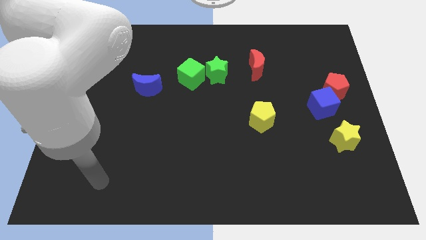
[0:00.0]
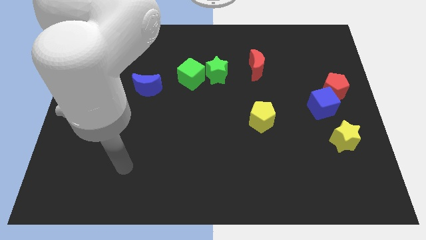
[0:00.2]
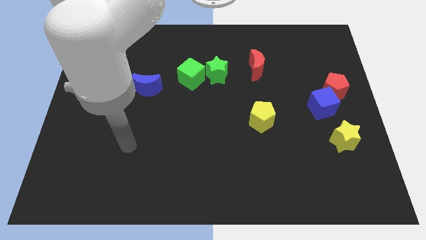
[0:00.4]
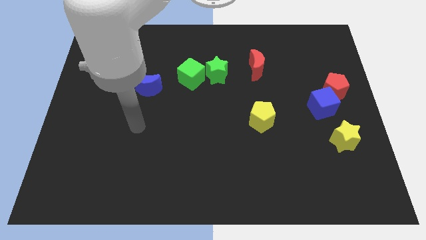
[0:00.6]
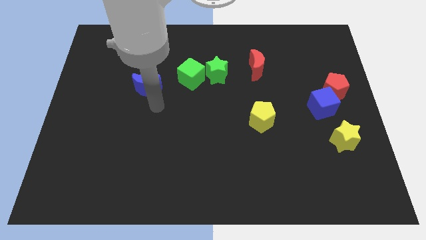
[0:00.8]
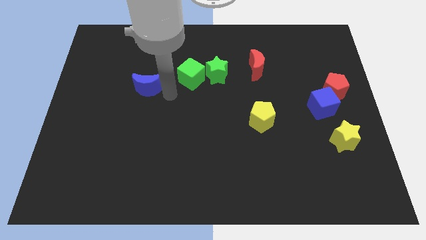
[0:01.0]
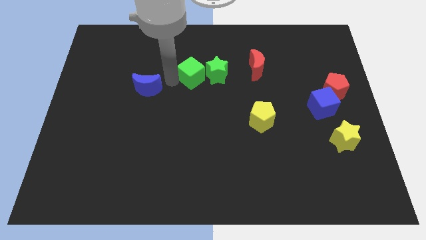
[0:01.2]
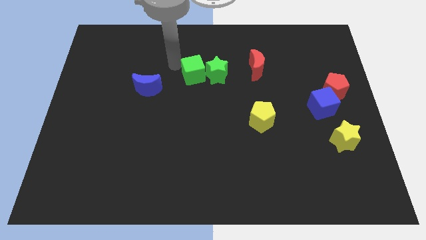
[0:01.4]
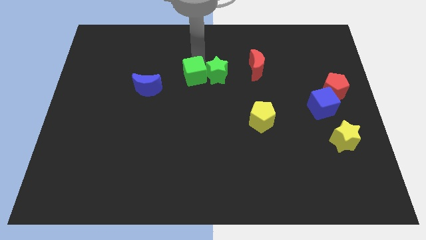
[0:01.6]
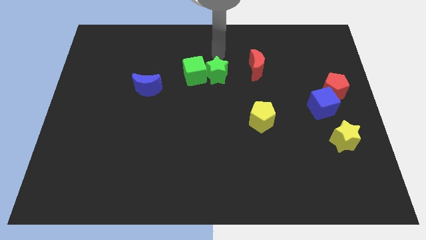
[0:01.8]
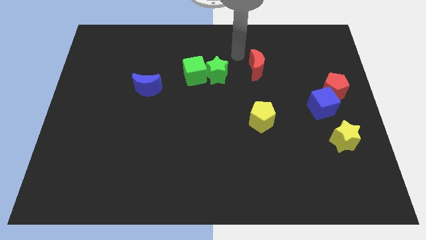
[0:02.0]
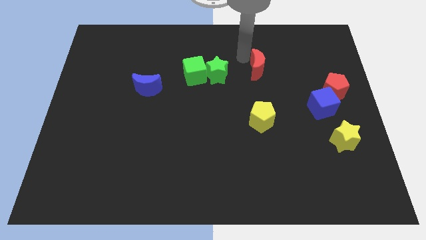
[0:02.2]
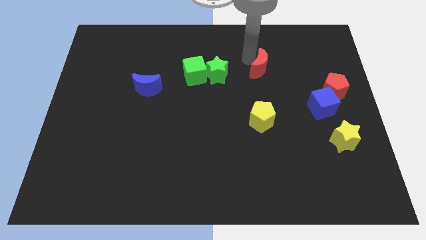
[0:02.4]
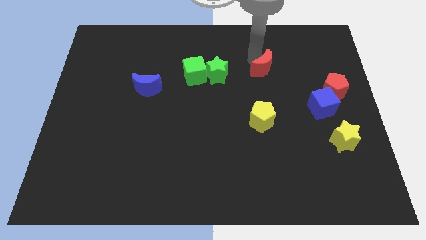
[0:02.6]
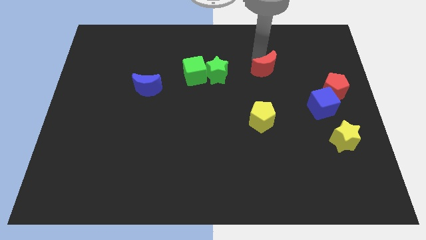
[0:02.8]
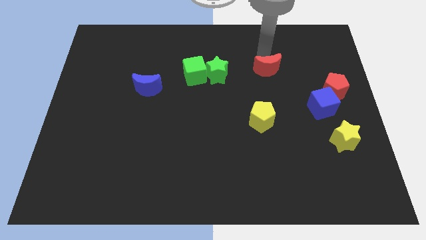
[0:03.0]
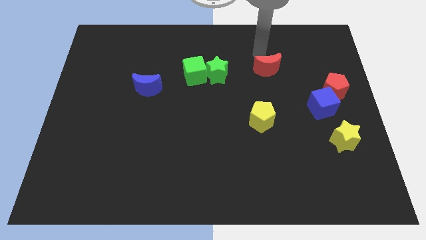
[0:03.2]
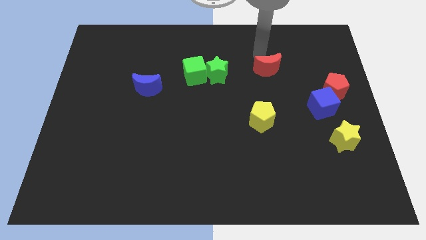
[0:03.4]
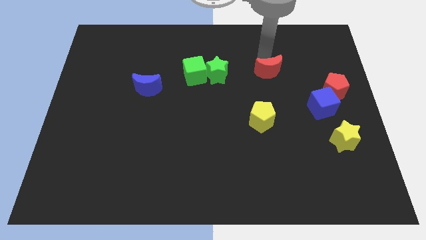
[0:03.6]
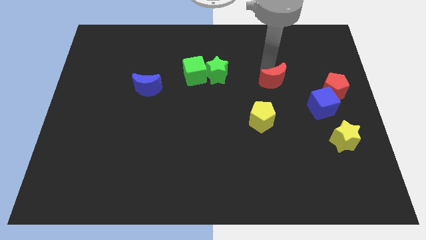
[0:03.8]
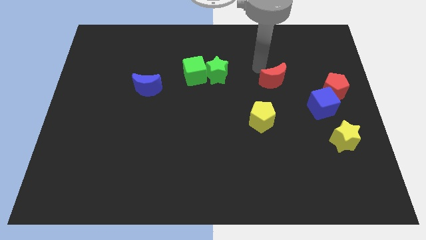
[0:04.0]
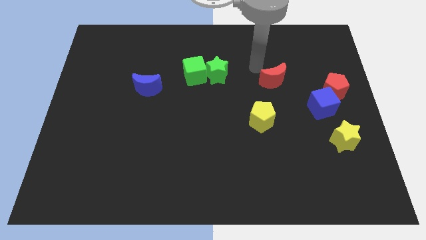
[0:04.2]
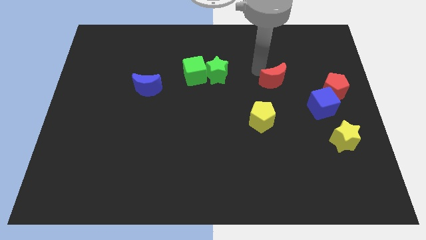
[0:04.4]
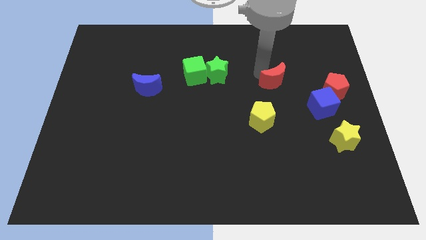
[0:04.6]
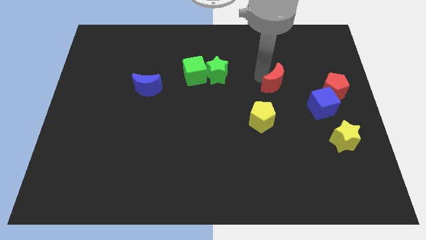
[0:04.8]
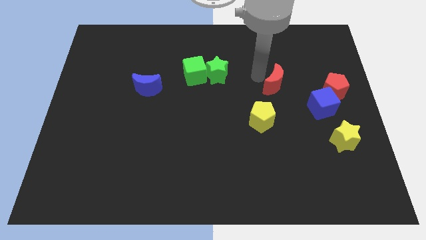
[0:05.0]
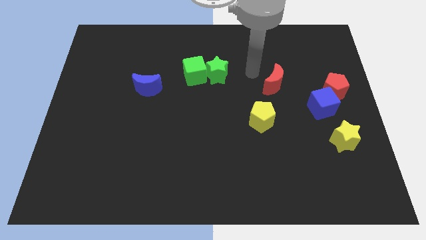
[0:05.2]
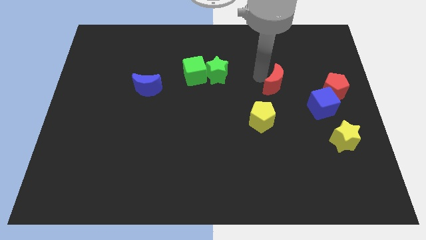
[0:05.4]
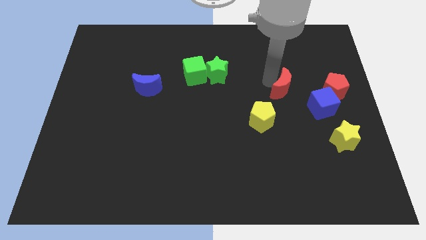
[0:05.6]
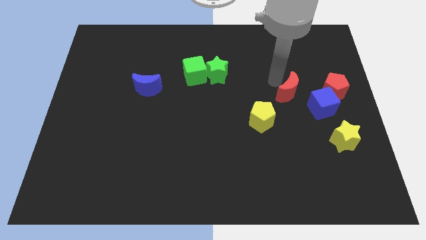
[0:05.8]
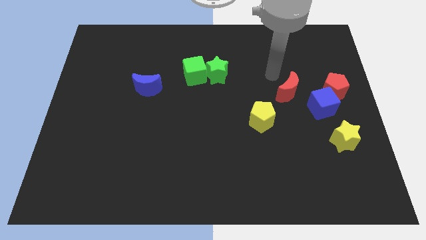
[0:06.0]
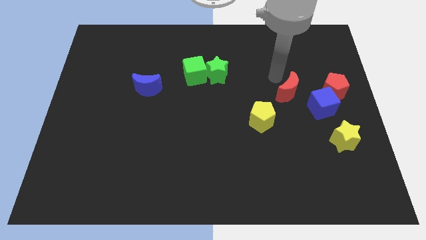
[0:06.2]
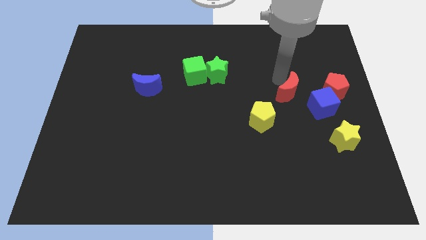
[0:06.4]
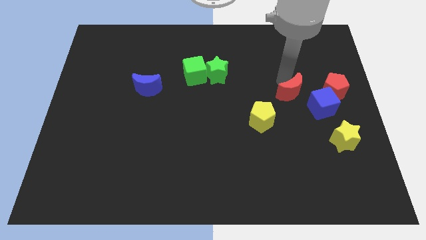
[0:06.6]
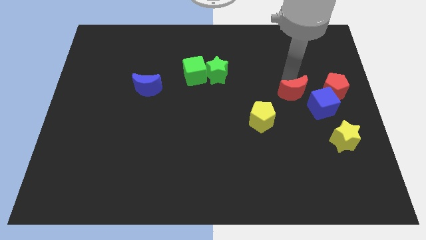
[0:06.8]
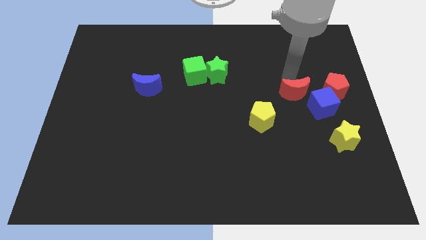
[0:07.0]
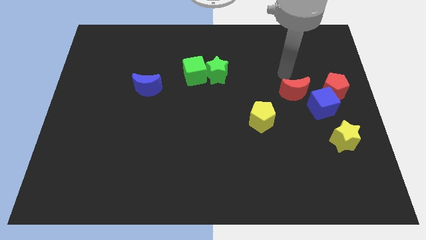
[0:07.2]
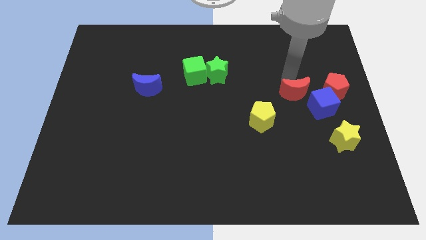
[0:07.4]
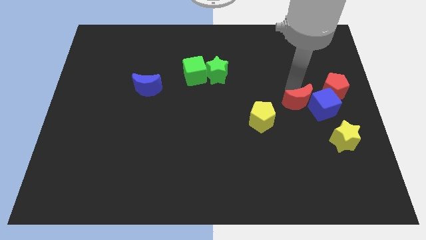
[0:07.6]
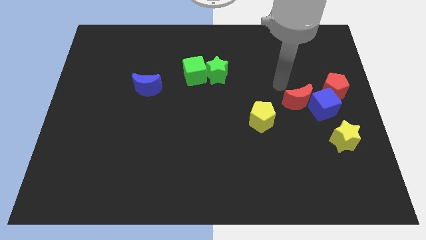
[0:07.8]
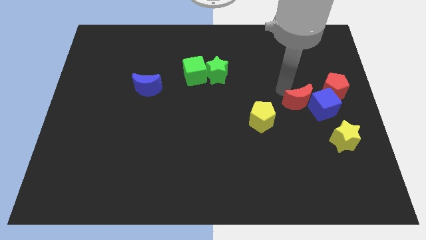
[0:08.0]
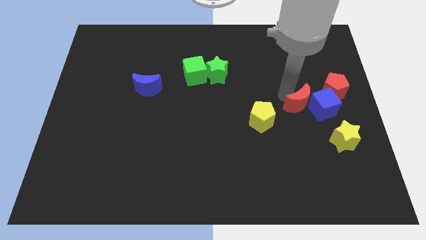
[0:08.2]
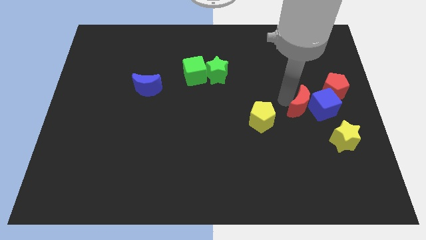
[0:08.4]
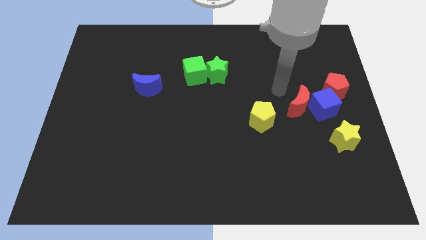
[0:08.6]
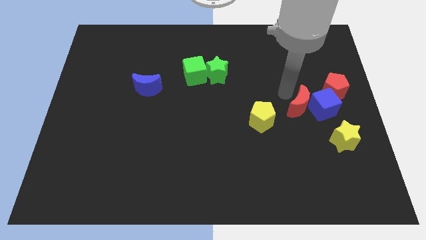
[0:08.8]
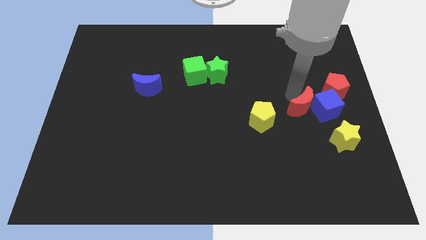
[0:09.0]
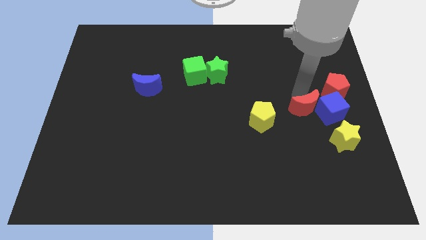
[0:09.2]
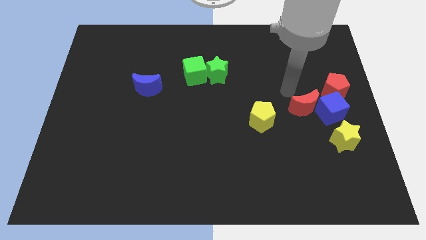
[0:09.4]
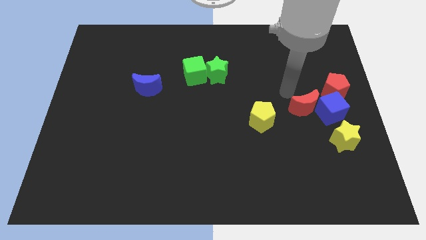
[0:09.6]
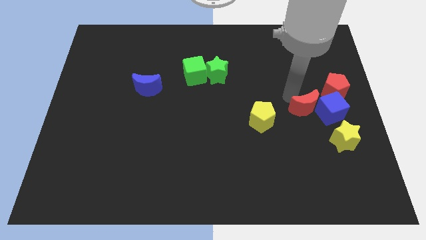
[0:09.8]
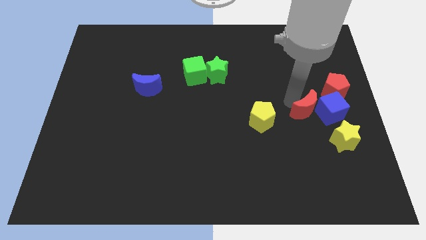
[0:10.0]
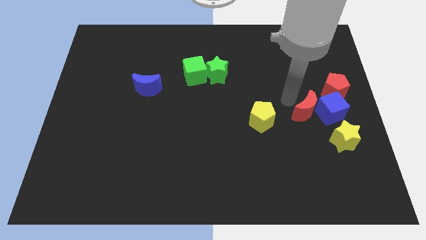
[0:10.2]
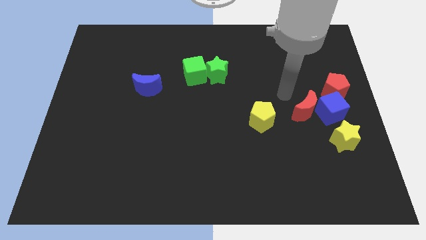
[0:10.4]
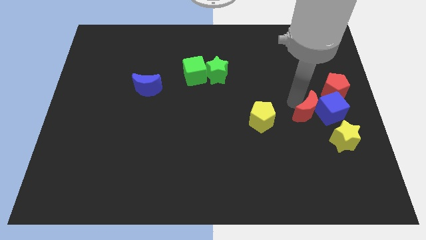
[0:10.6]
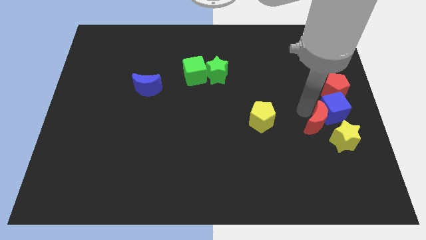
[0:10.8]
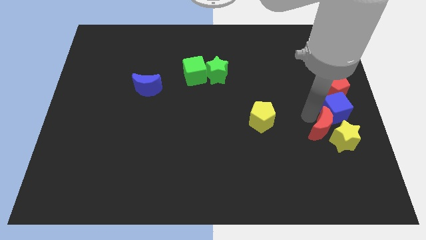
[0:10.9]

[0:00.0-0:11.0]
slide the red moon to the yellow star

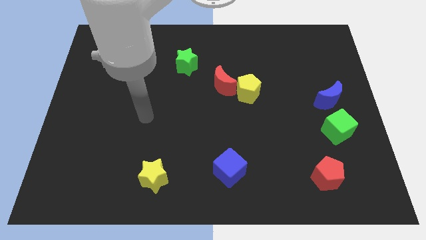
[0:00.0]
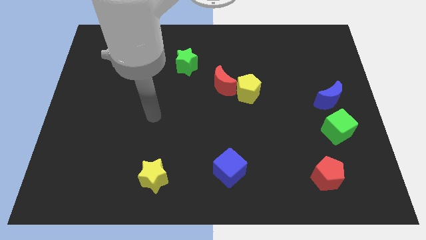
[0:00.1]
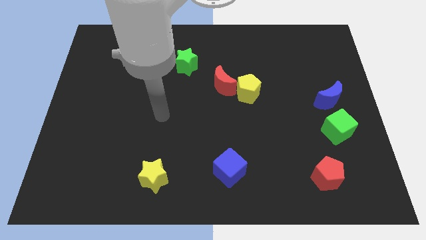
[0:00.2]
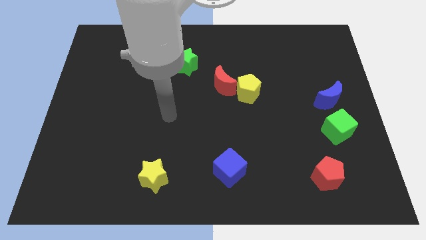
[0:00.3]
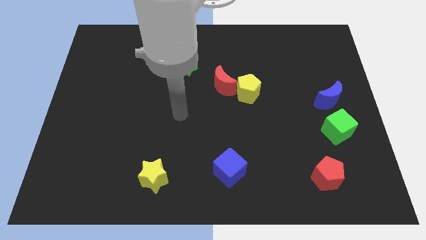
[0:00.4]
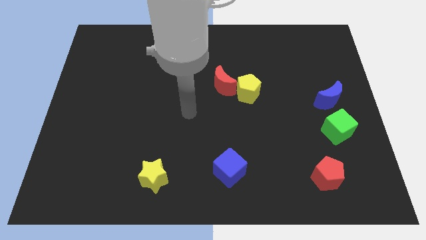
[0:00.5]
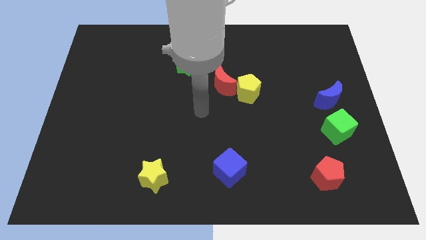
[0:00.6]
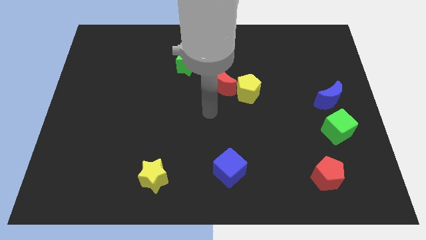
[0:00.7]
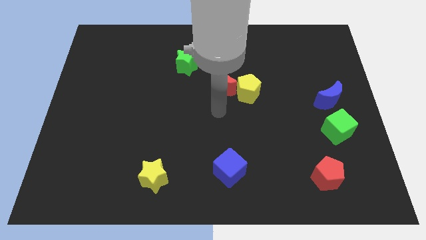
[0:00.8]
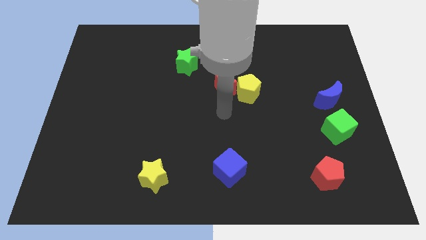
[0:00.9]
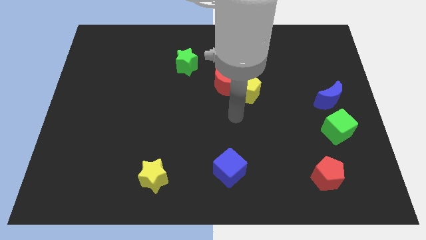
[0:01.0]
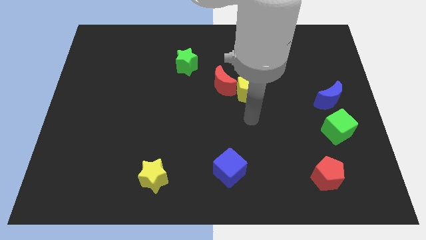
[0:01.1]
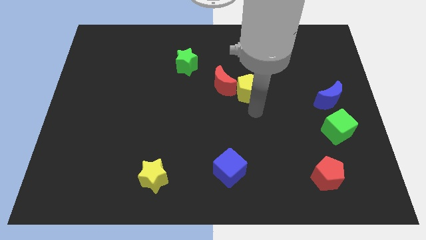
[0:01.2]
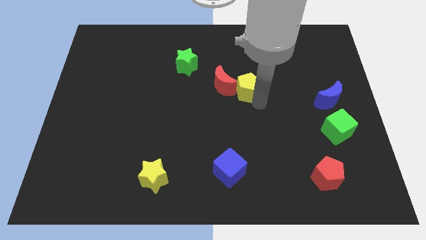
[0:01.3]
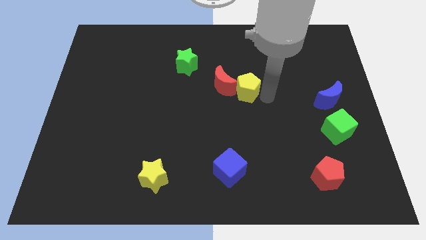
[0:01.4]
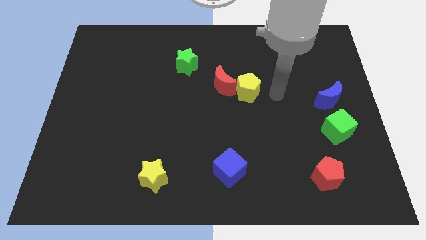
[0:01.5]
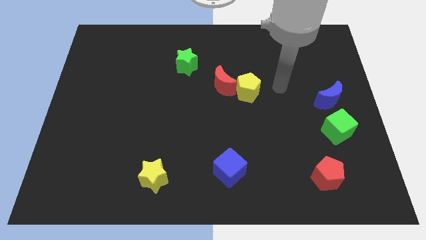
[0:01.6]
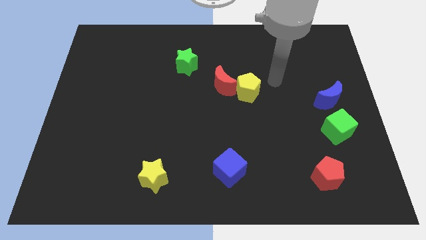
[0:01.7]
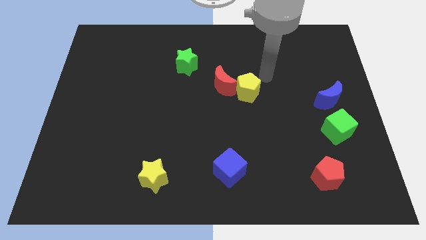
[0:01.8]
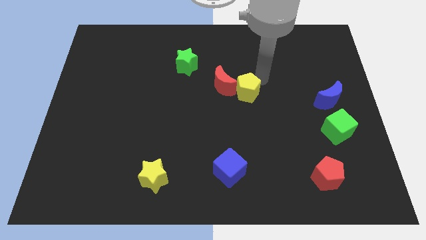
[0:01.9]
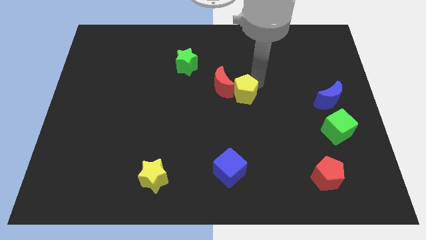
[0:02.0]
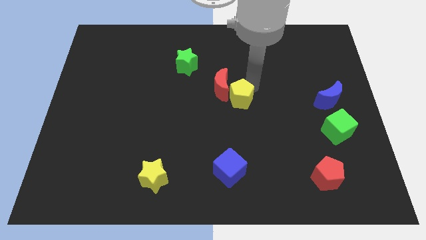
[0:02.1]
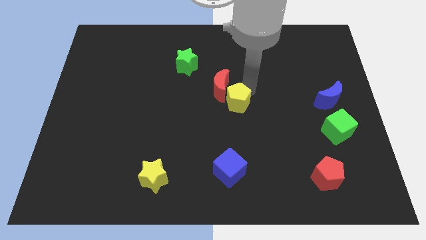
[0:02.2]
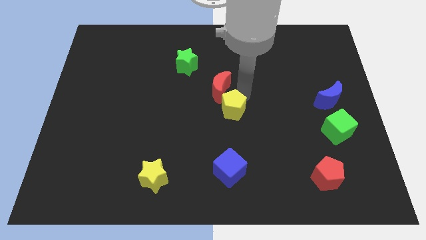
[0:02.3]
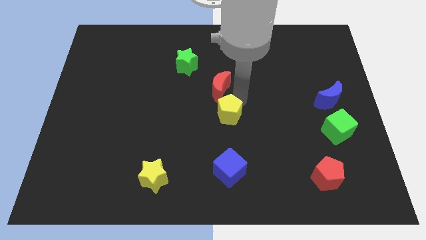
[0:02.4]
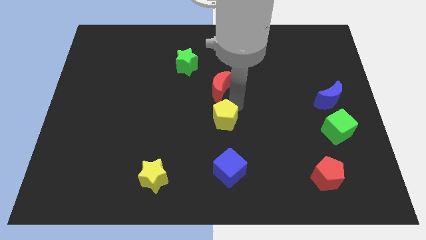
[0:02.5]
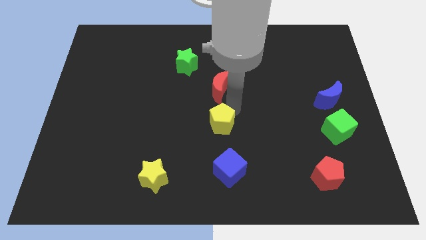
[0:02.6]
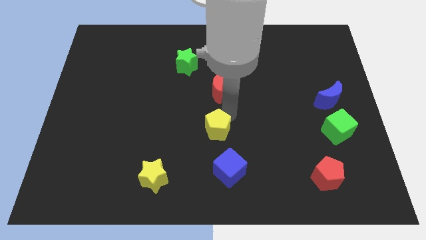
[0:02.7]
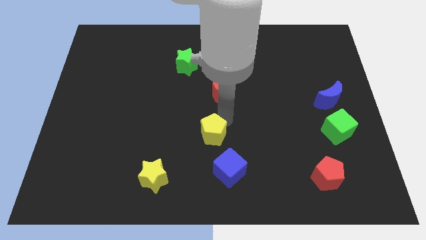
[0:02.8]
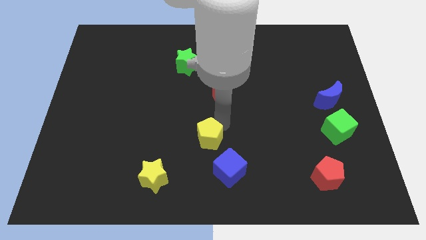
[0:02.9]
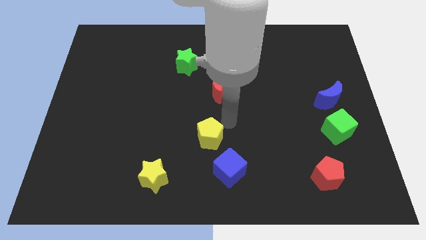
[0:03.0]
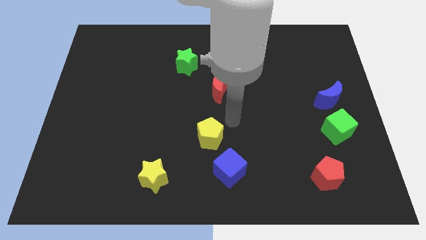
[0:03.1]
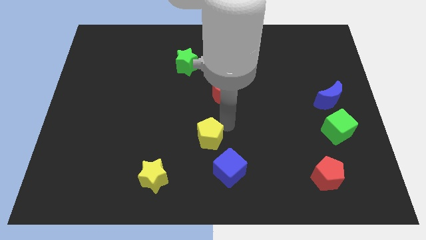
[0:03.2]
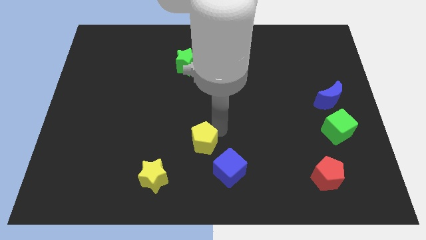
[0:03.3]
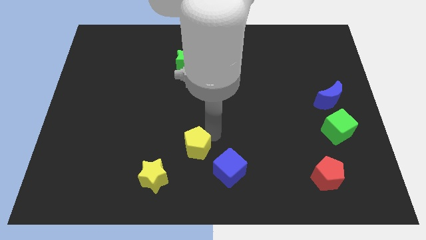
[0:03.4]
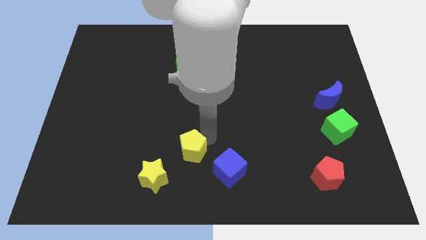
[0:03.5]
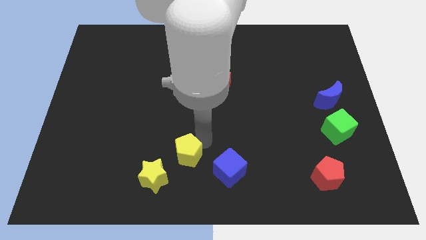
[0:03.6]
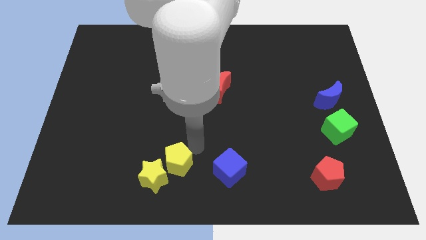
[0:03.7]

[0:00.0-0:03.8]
push the yellow pentagon to the yellow star
